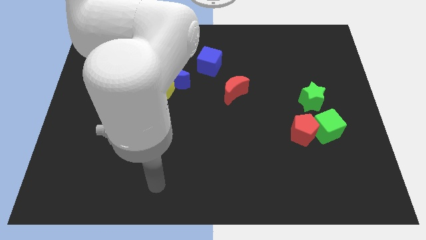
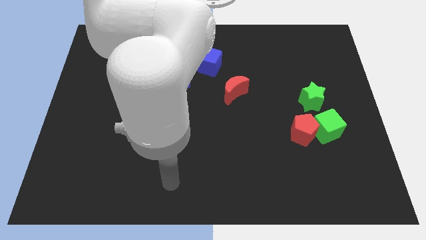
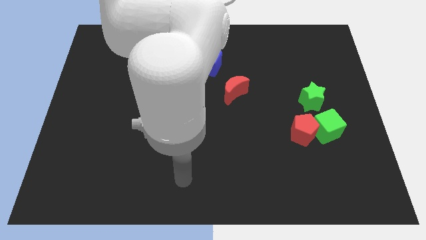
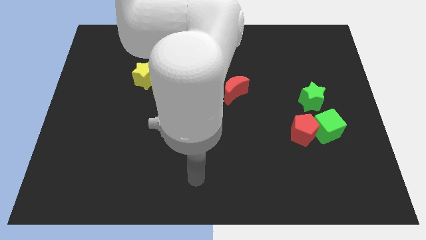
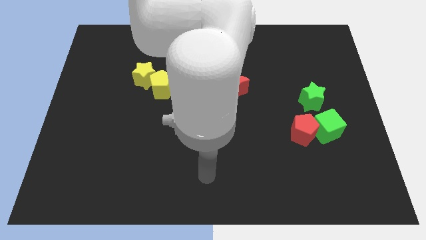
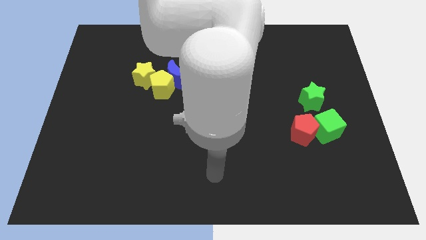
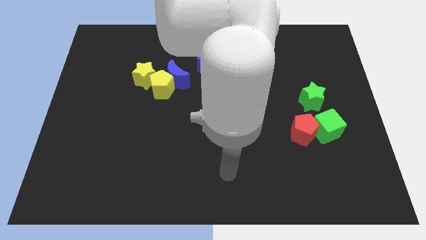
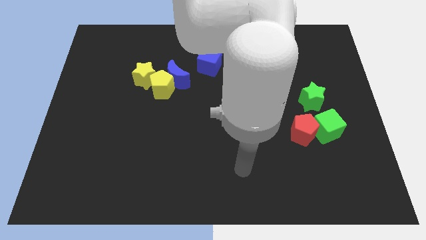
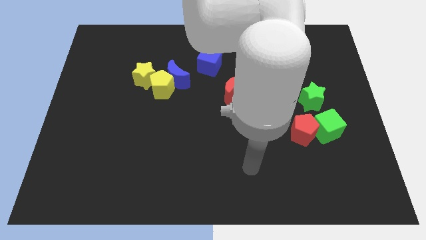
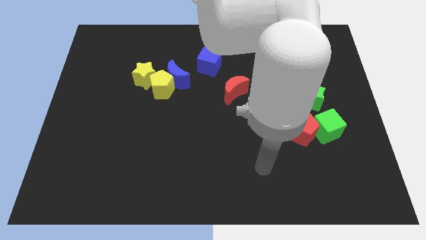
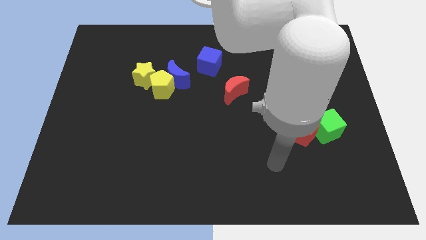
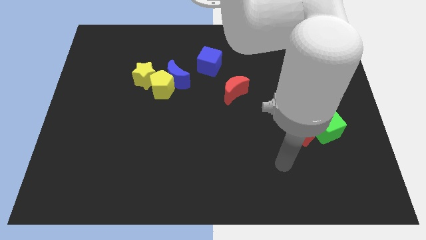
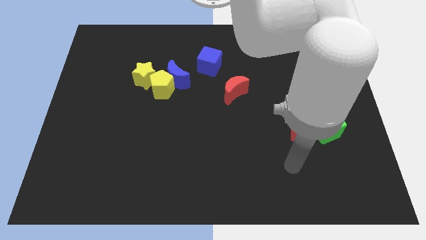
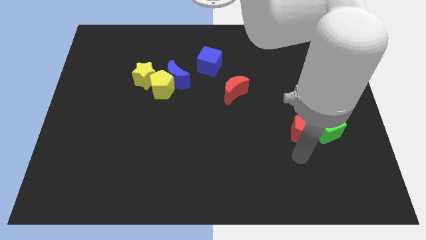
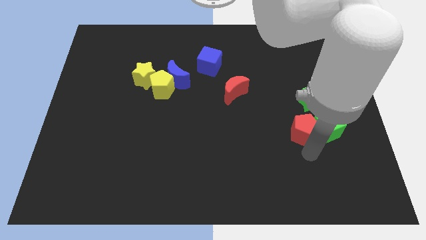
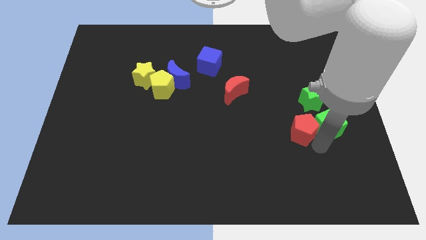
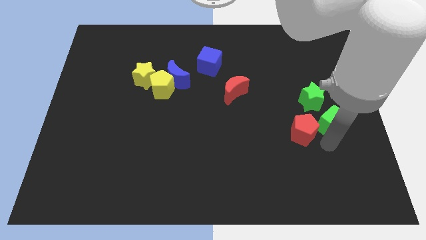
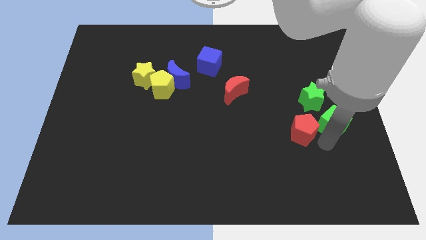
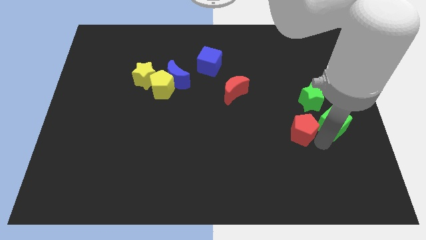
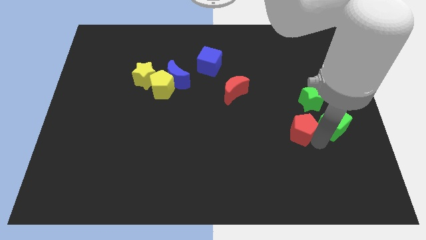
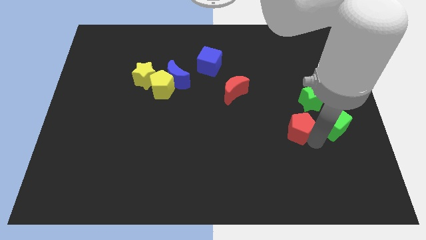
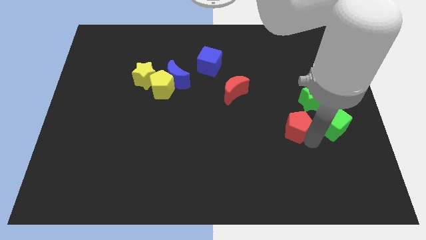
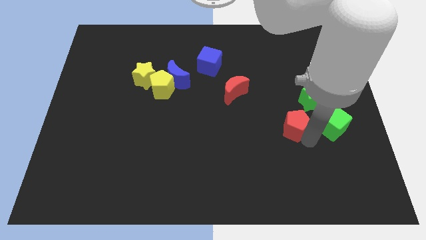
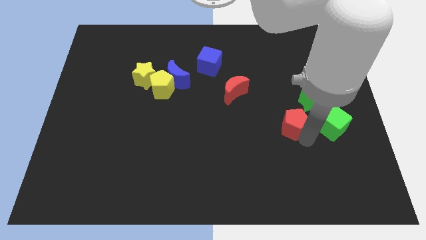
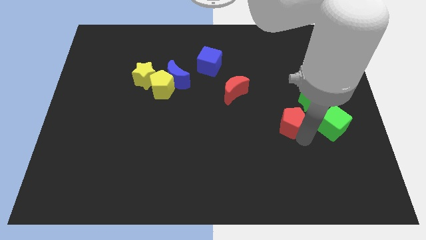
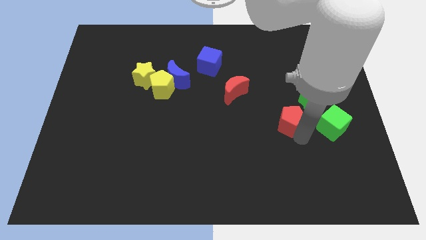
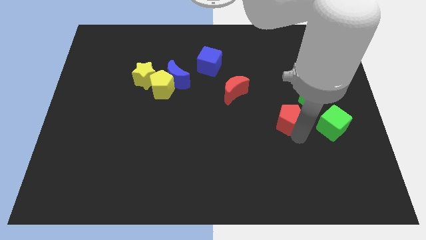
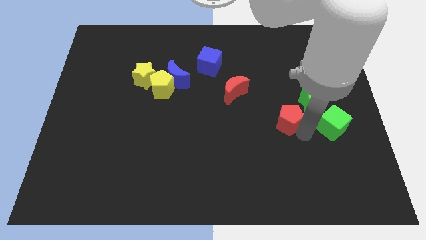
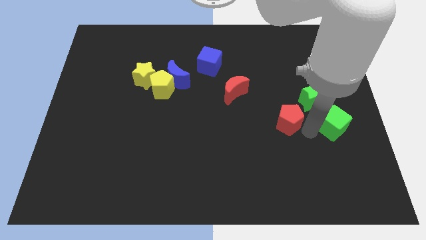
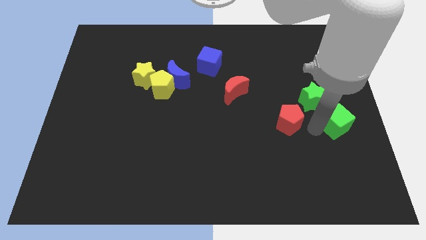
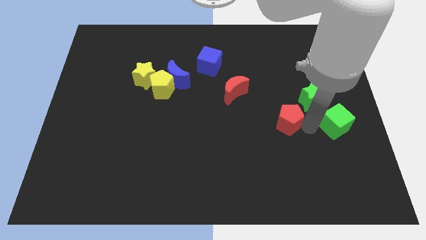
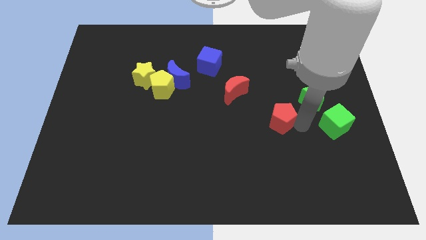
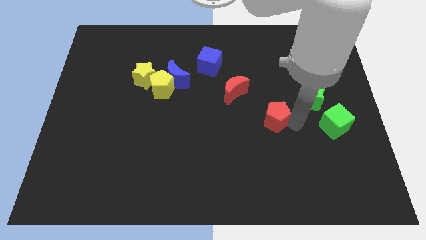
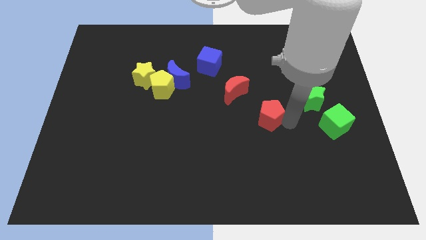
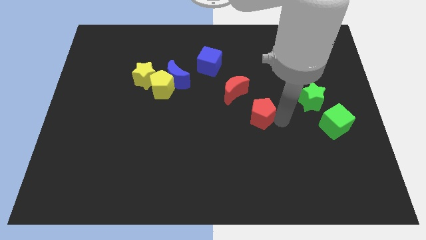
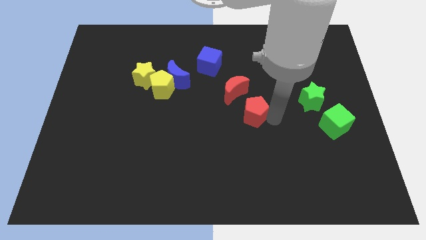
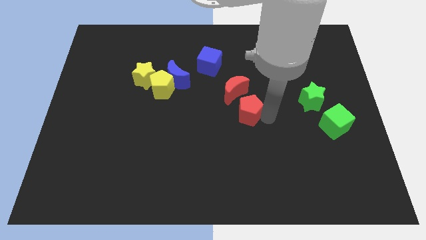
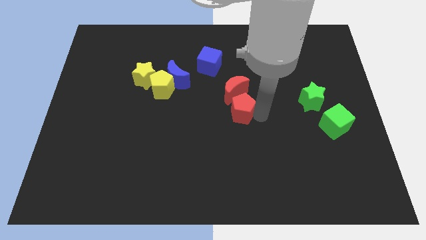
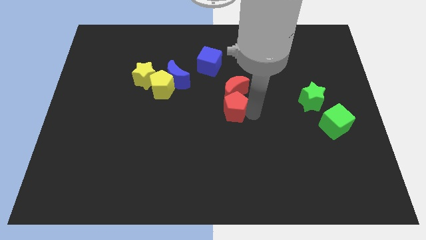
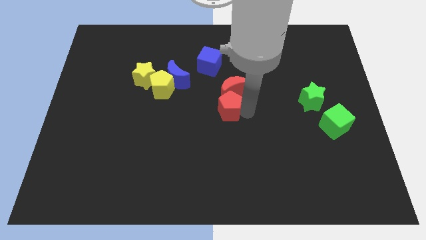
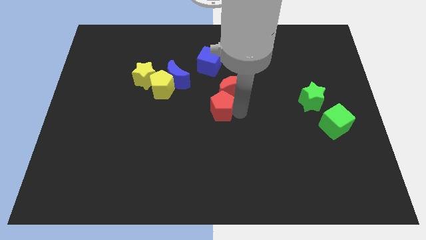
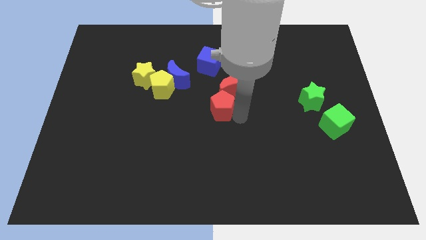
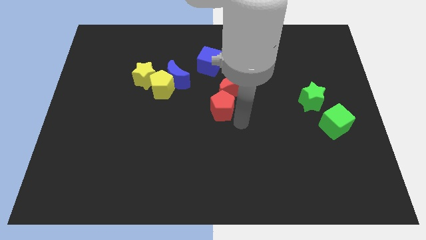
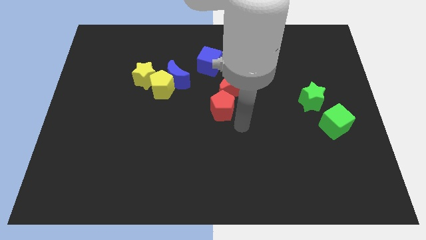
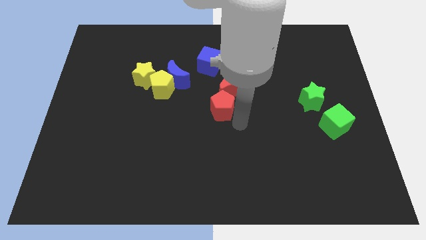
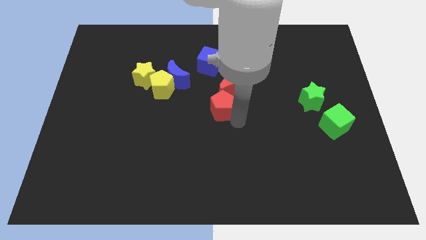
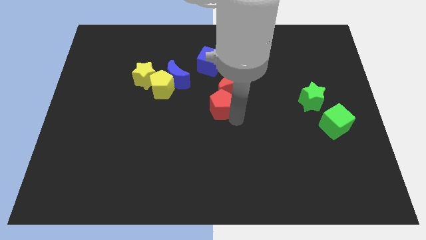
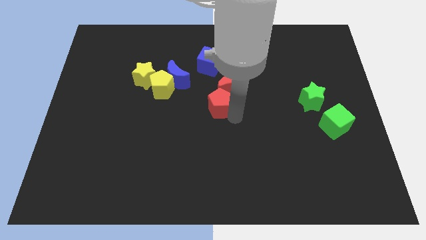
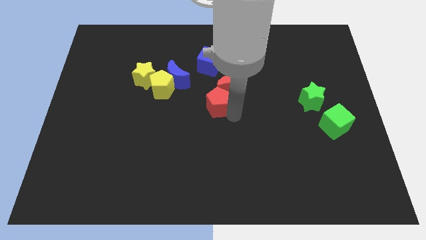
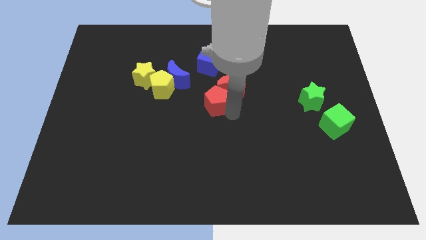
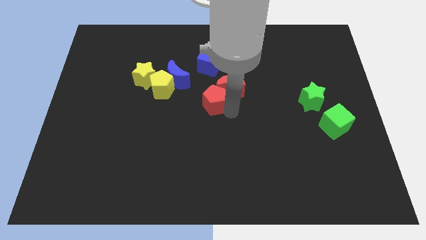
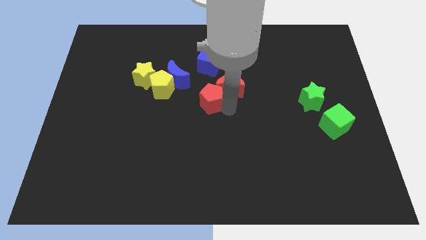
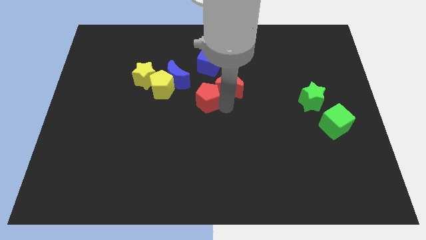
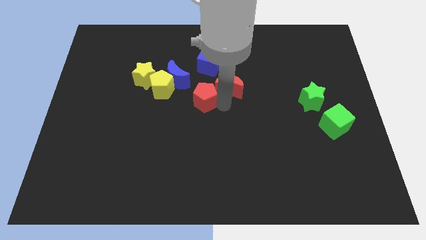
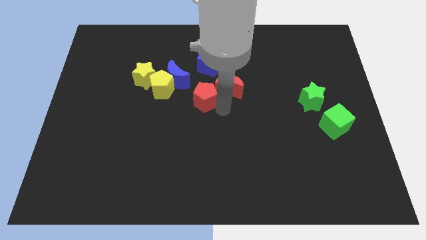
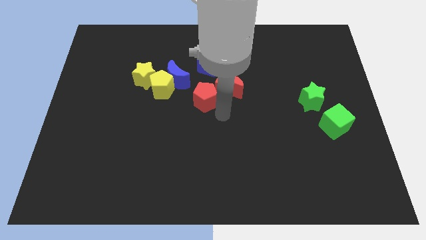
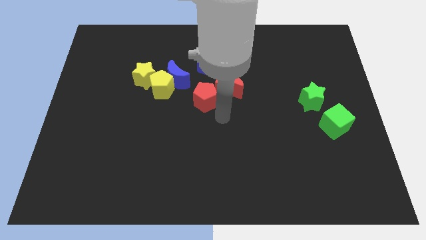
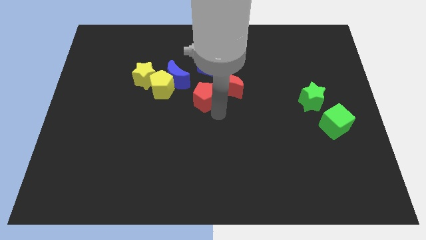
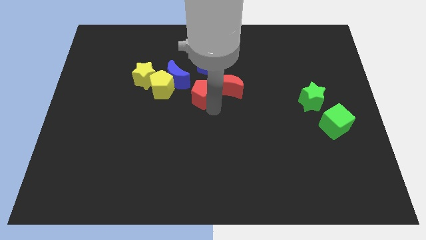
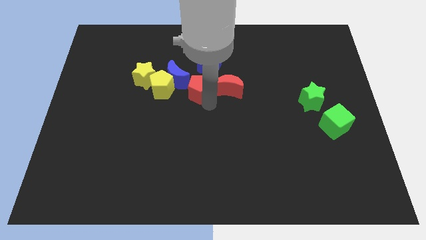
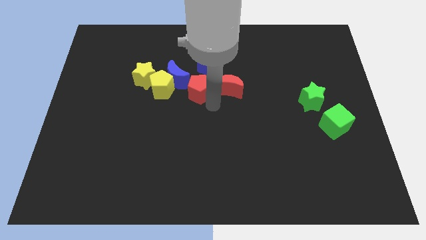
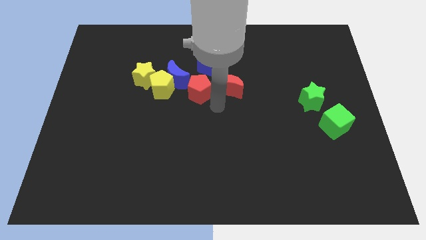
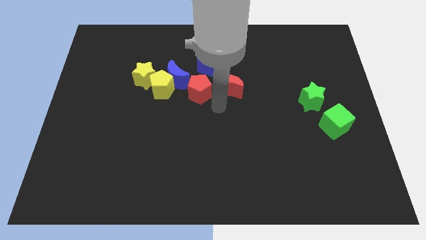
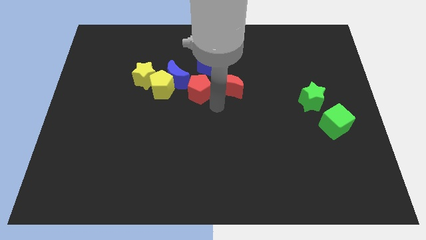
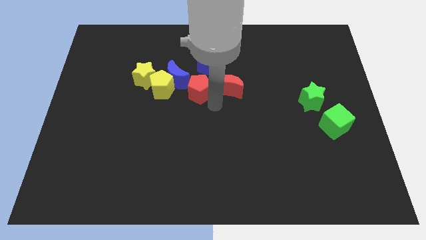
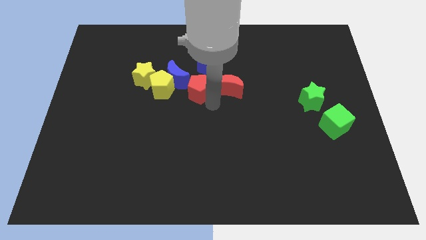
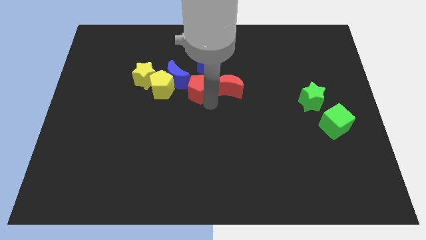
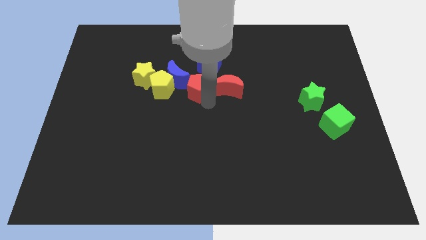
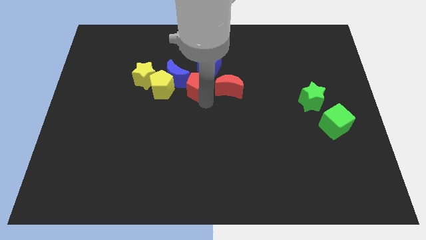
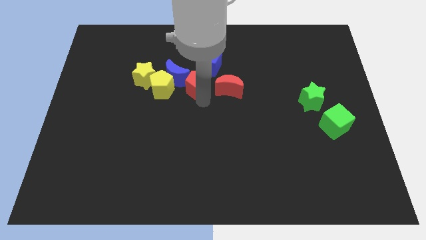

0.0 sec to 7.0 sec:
slide the red pentagon towards the blue moon

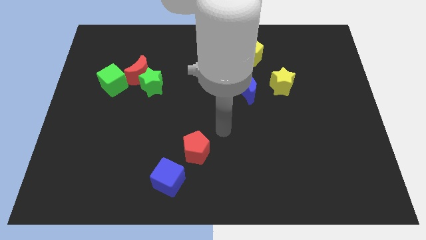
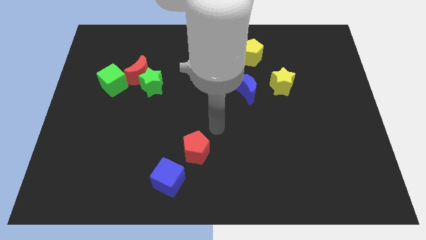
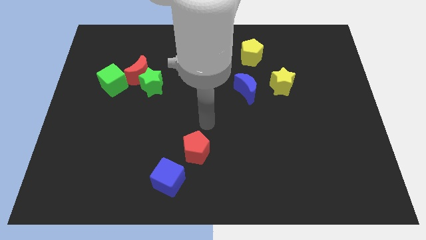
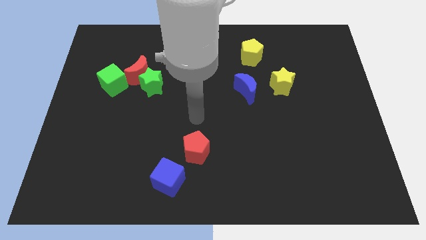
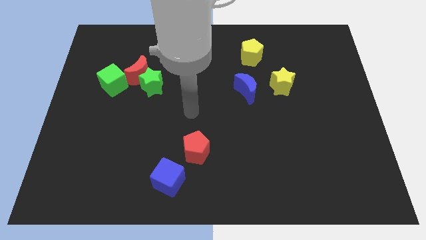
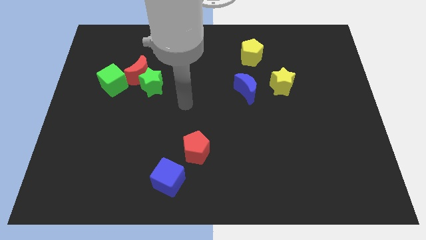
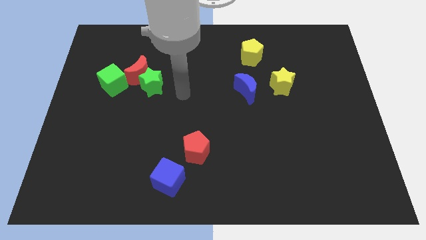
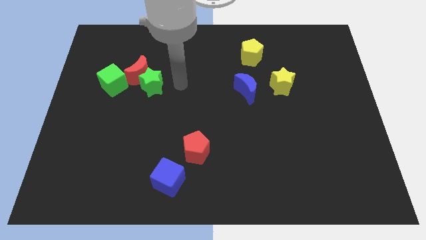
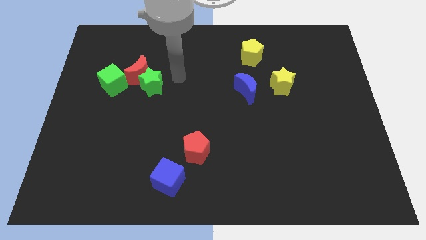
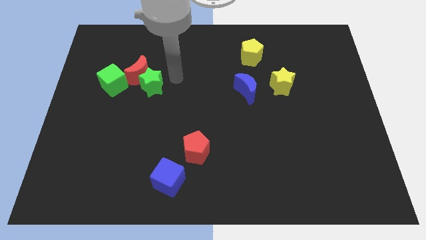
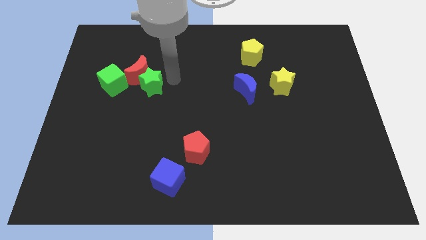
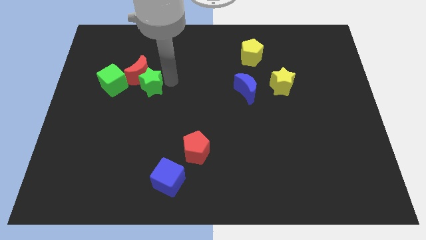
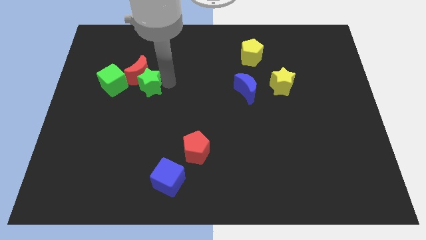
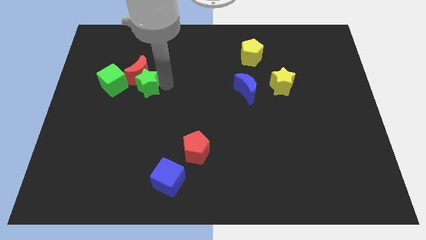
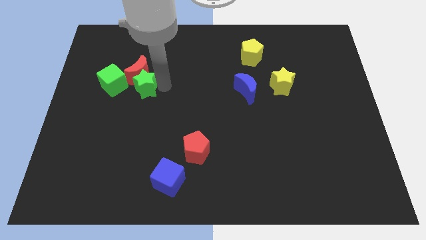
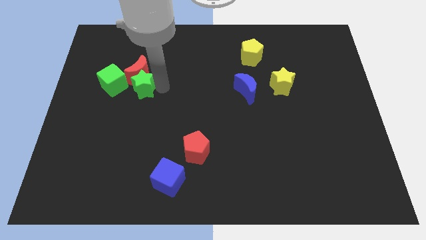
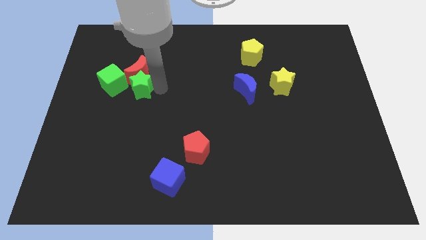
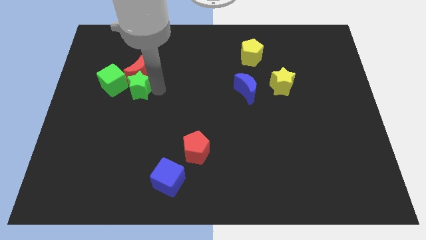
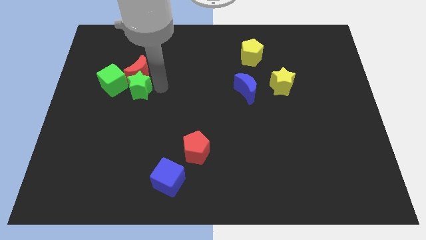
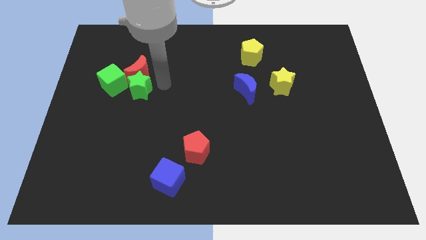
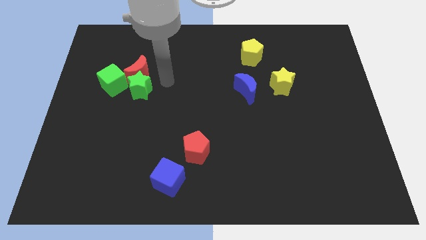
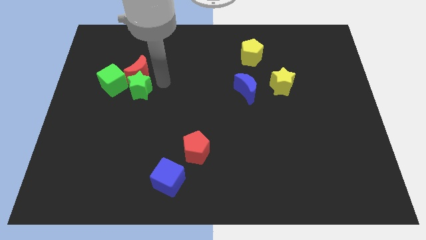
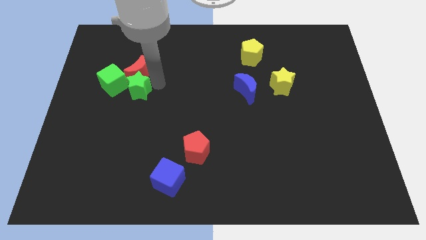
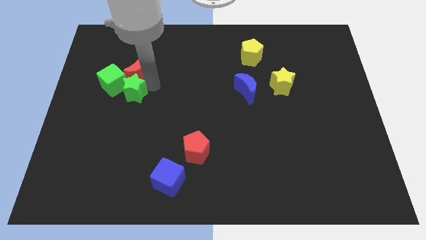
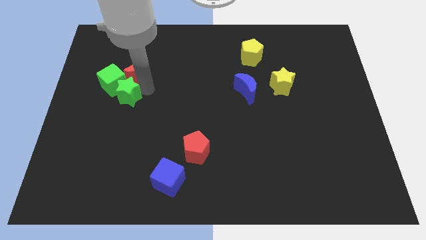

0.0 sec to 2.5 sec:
put the green star to the green cube
